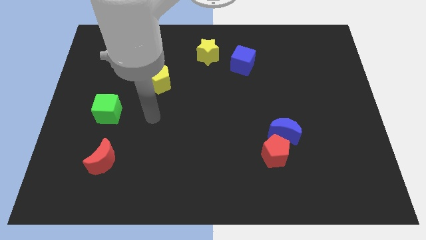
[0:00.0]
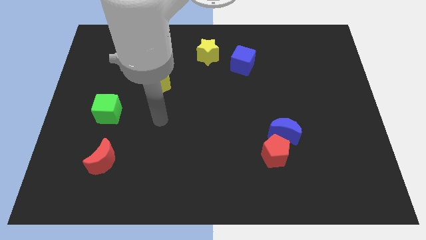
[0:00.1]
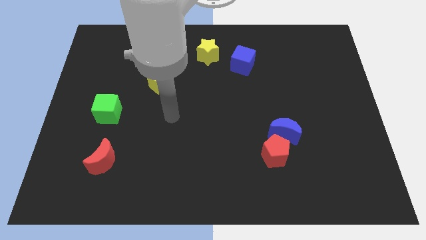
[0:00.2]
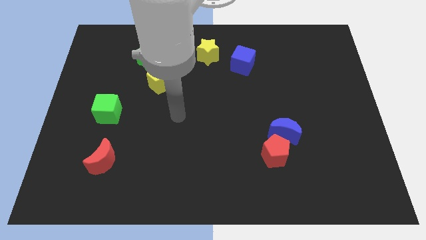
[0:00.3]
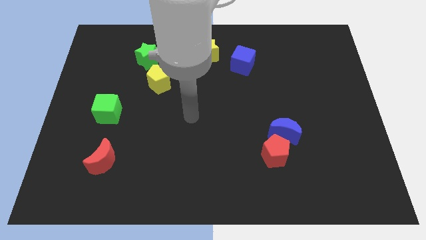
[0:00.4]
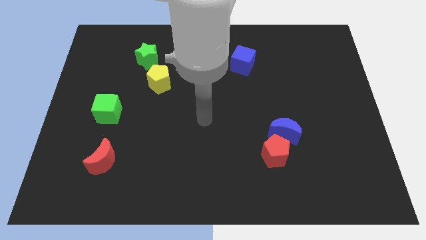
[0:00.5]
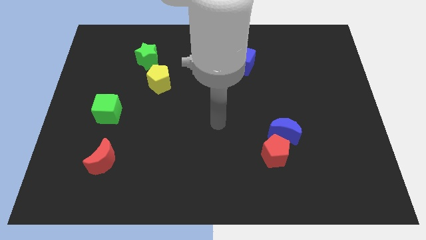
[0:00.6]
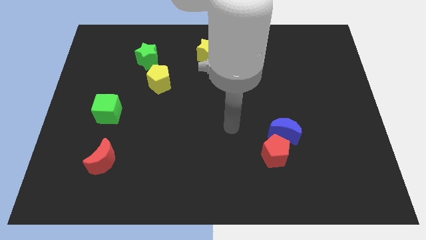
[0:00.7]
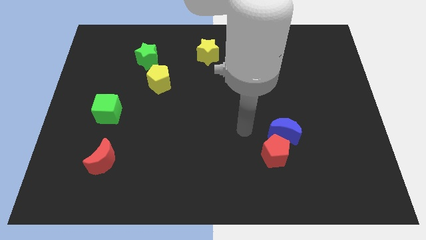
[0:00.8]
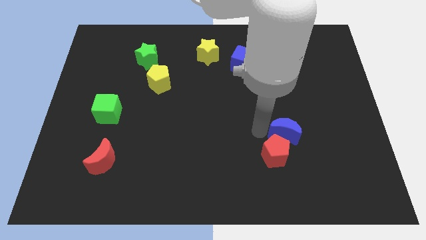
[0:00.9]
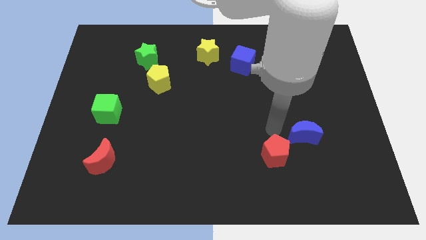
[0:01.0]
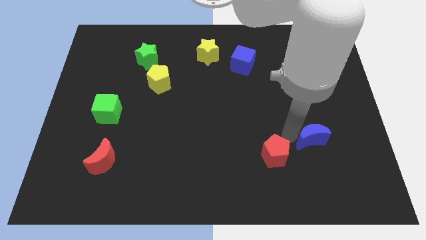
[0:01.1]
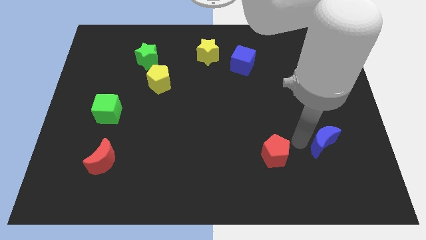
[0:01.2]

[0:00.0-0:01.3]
move the red pentagon away from the blue moon

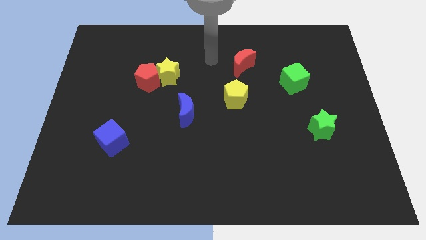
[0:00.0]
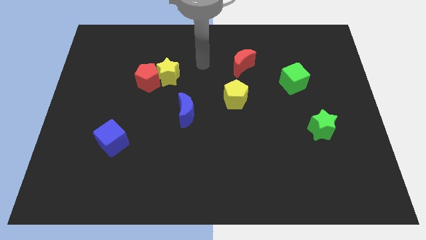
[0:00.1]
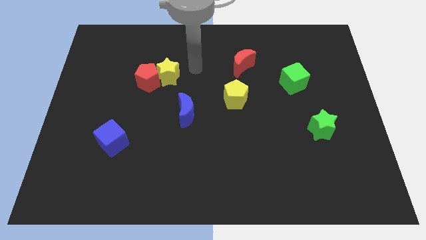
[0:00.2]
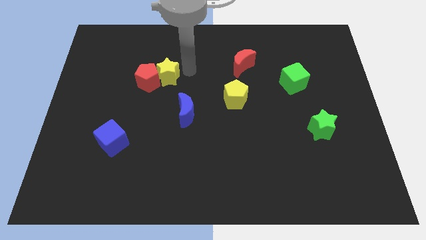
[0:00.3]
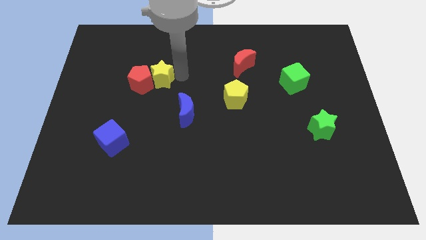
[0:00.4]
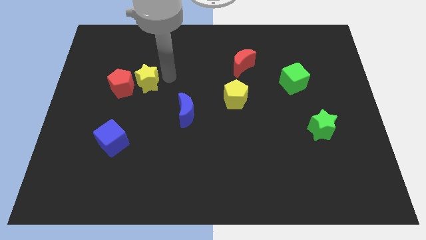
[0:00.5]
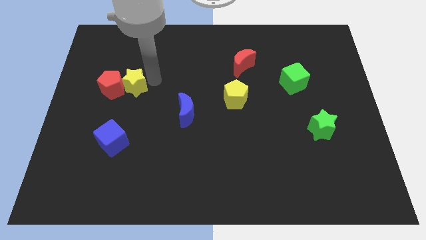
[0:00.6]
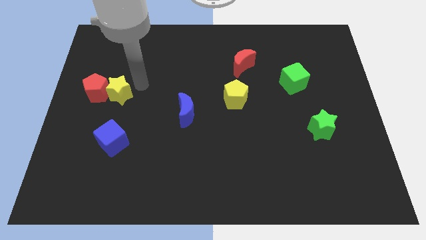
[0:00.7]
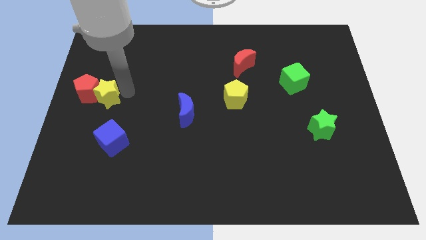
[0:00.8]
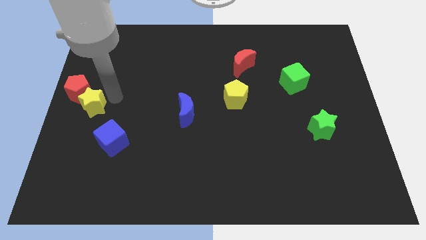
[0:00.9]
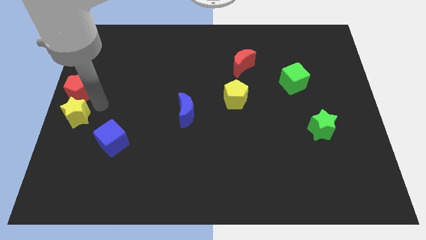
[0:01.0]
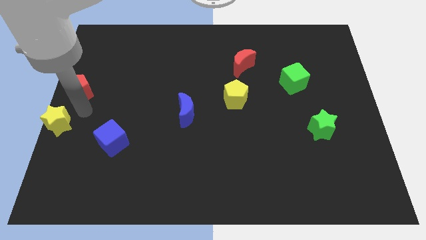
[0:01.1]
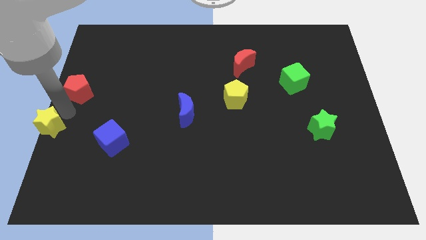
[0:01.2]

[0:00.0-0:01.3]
move the red pentagon away from the yellow star

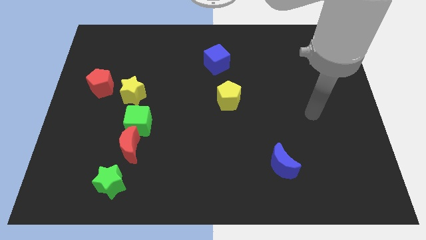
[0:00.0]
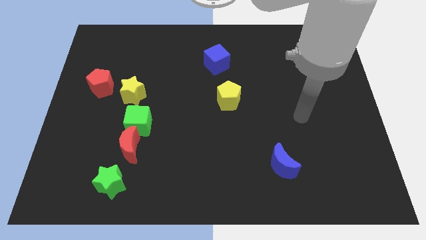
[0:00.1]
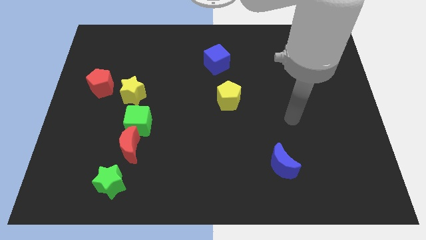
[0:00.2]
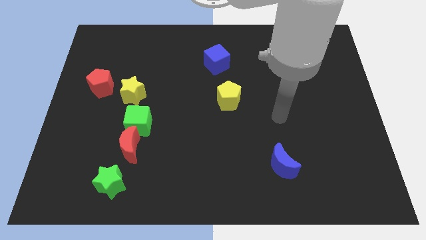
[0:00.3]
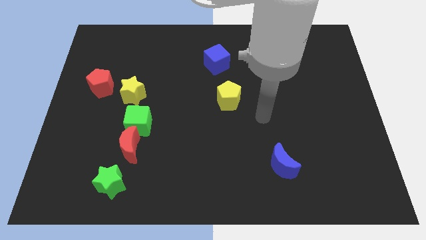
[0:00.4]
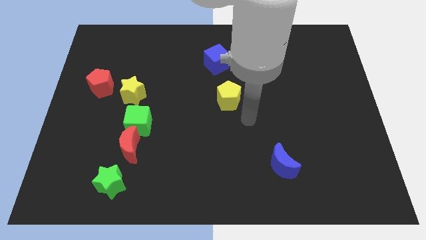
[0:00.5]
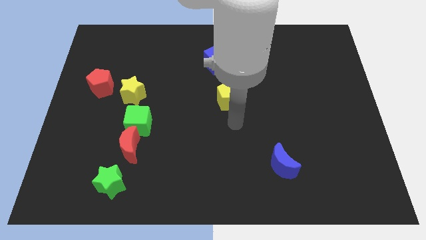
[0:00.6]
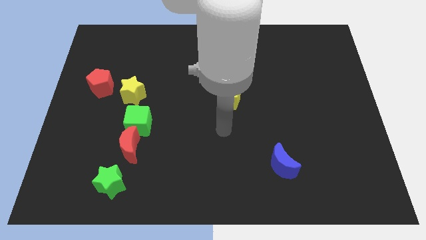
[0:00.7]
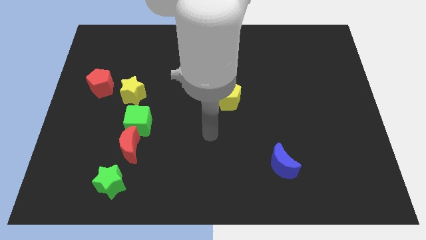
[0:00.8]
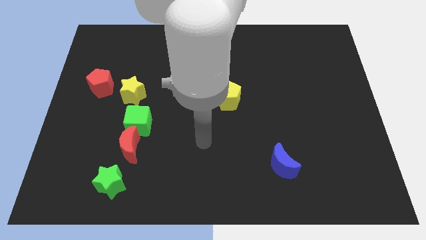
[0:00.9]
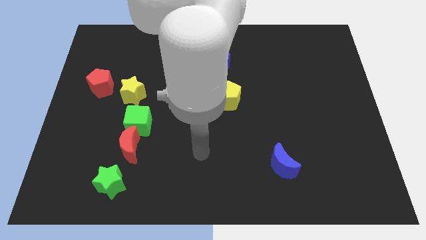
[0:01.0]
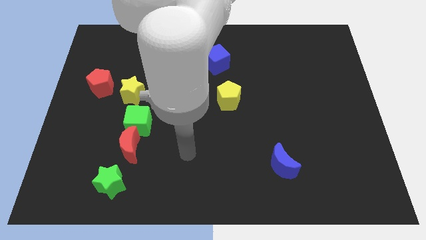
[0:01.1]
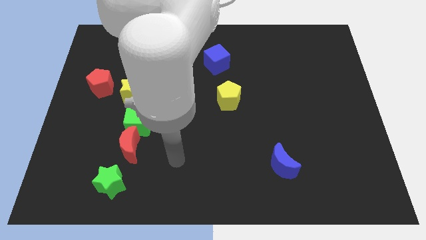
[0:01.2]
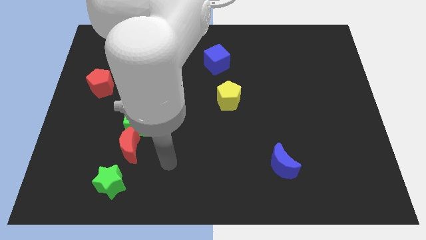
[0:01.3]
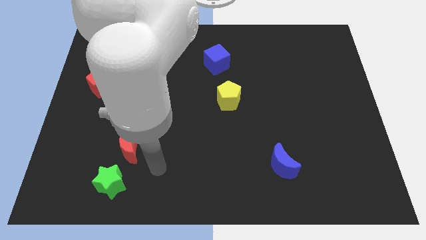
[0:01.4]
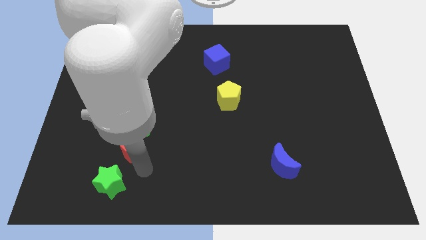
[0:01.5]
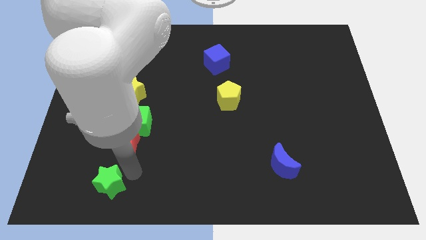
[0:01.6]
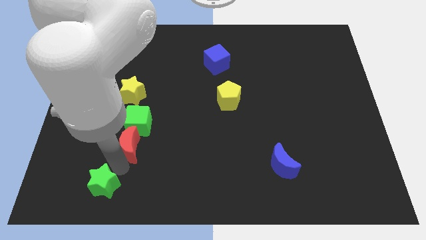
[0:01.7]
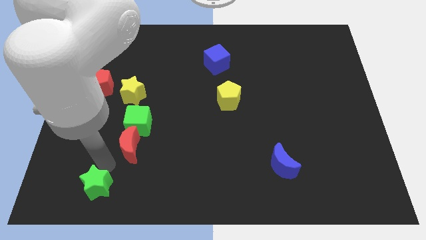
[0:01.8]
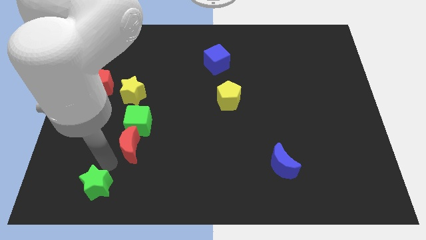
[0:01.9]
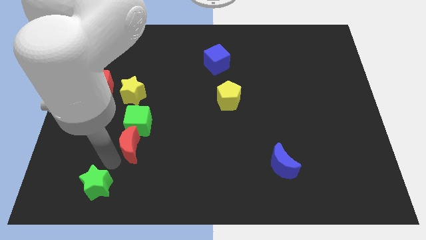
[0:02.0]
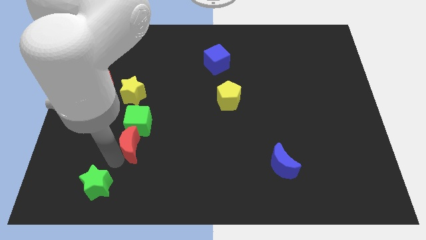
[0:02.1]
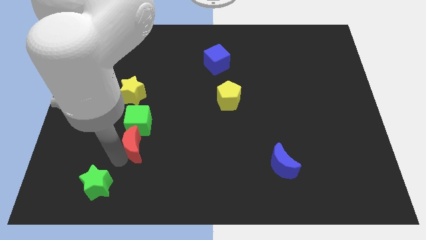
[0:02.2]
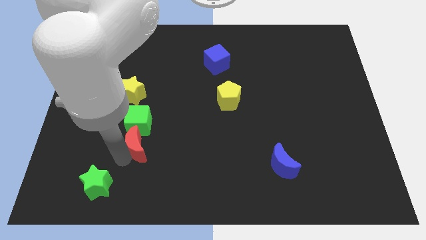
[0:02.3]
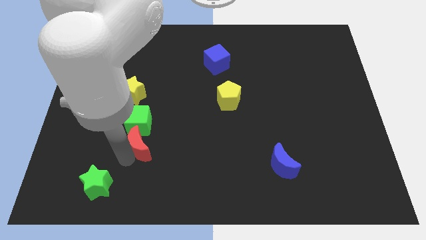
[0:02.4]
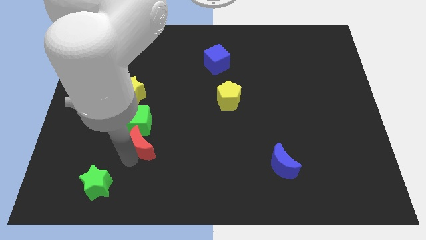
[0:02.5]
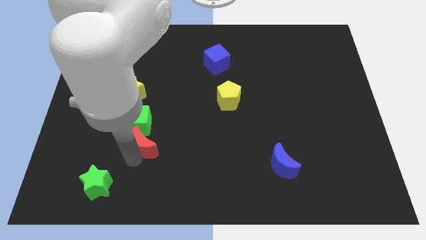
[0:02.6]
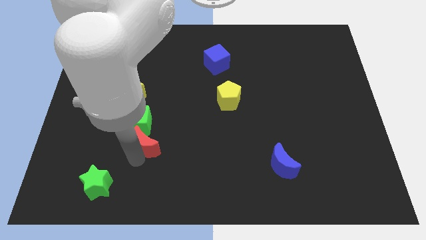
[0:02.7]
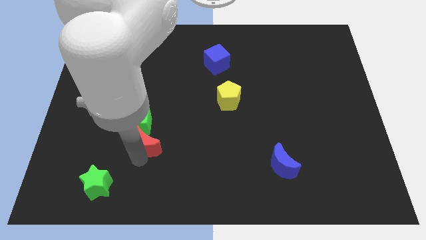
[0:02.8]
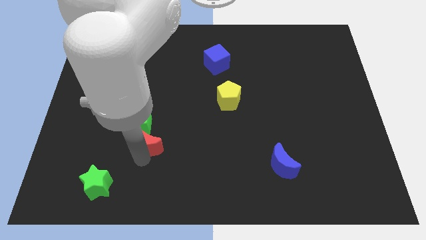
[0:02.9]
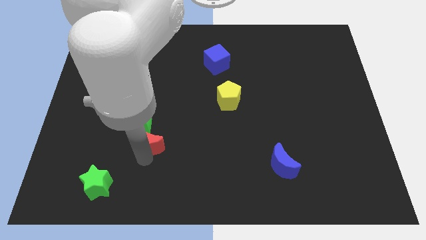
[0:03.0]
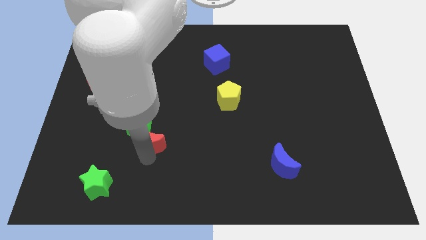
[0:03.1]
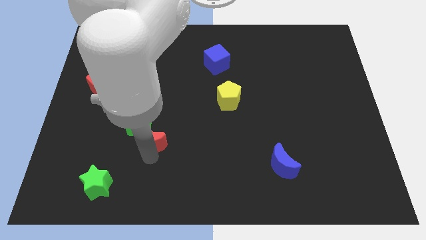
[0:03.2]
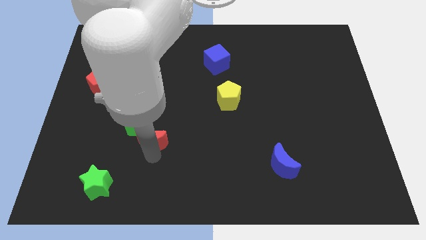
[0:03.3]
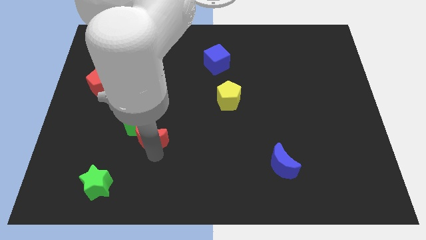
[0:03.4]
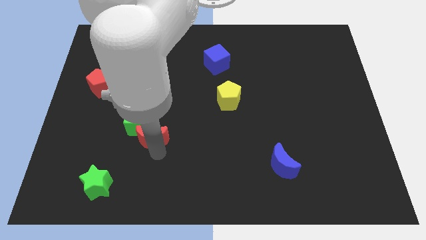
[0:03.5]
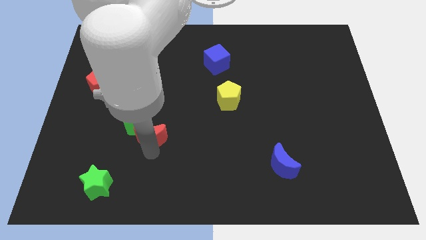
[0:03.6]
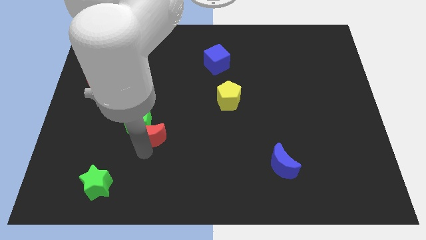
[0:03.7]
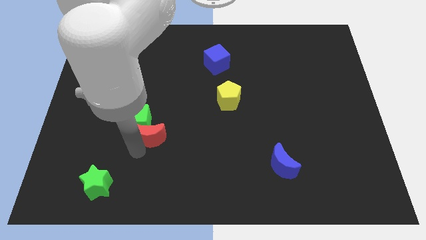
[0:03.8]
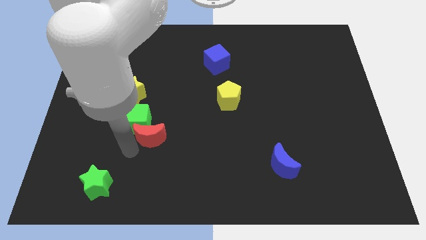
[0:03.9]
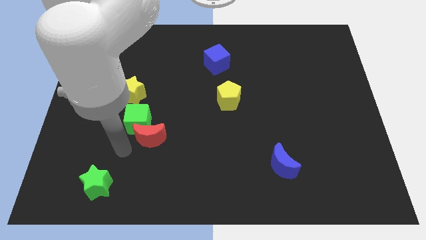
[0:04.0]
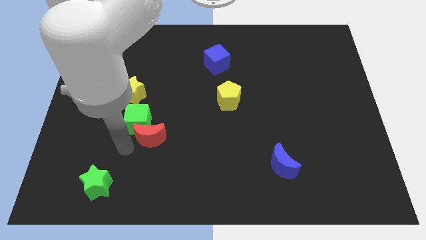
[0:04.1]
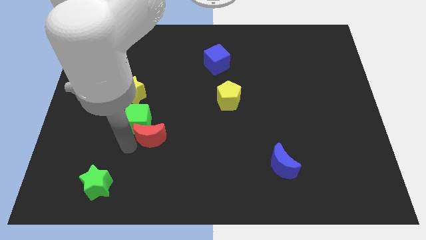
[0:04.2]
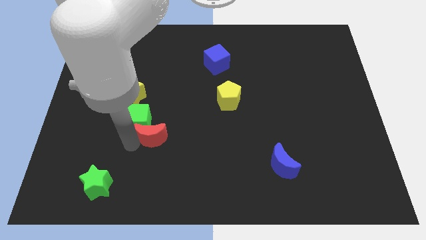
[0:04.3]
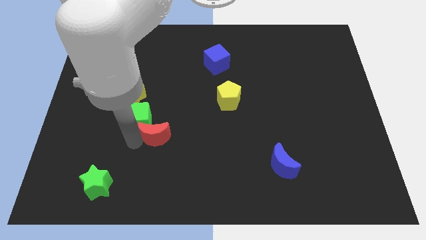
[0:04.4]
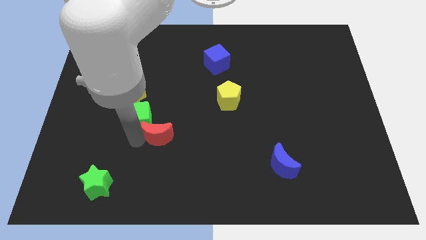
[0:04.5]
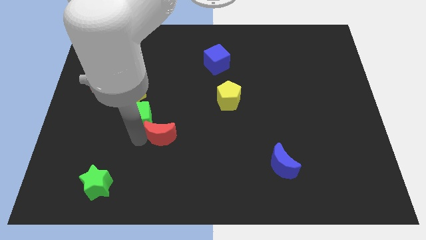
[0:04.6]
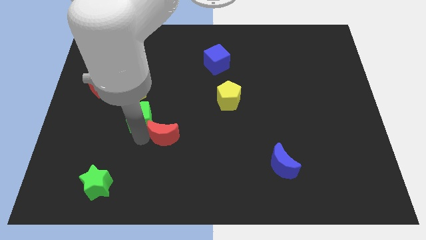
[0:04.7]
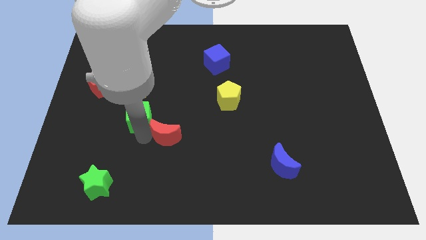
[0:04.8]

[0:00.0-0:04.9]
separate the red moon from the green cube and green star

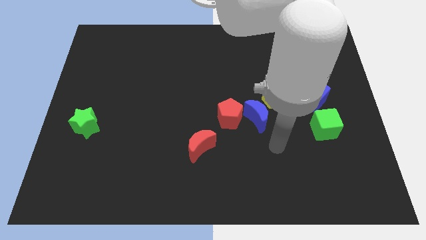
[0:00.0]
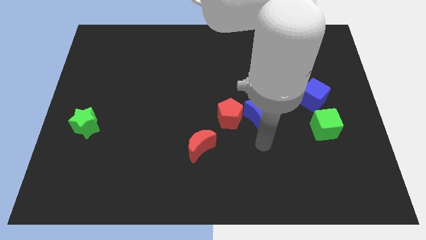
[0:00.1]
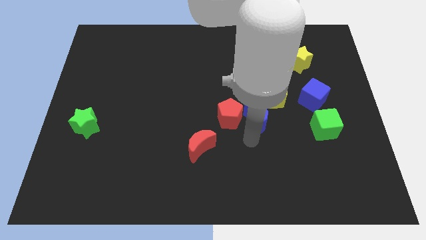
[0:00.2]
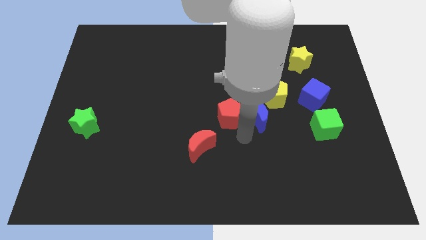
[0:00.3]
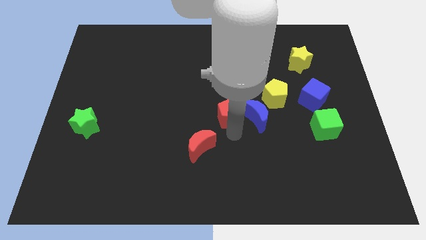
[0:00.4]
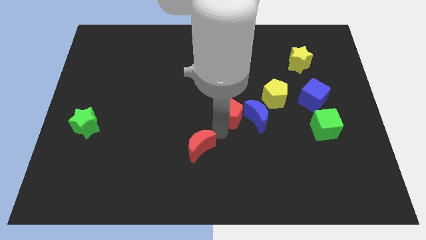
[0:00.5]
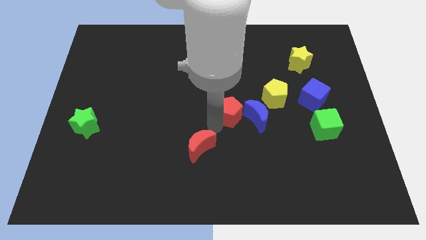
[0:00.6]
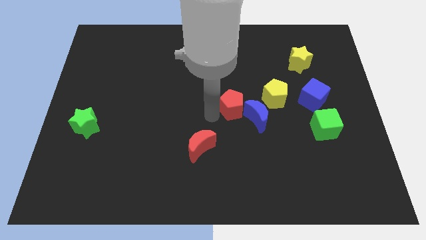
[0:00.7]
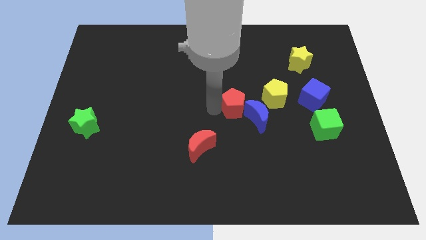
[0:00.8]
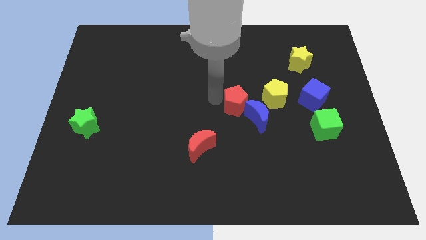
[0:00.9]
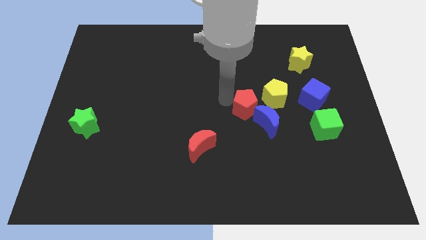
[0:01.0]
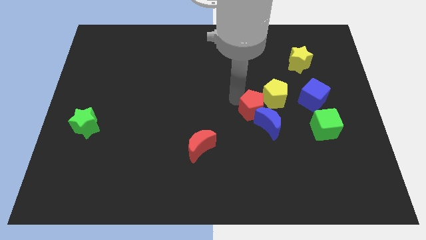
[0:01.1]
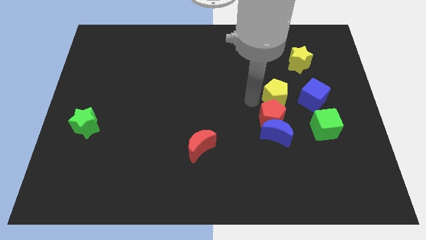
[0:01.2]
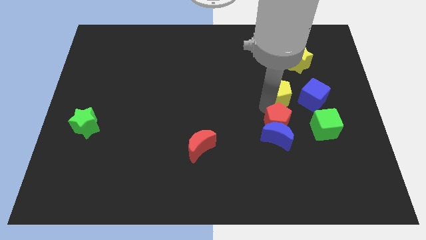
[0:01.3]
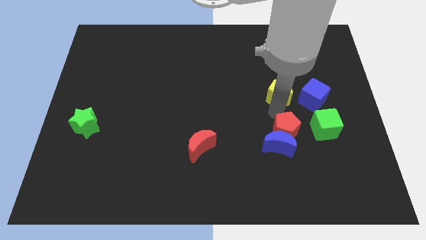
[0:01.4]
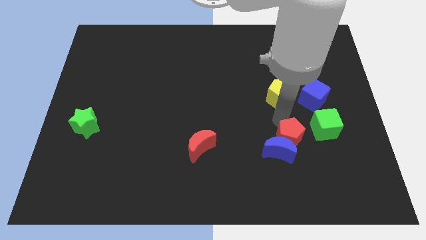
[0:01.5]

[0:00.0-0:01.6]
pull the blue moon apart from the red pentagon and yellow pentagon

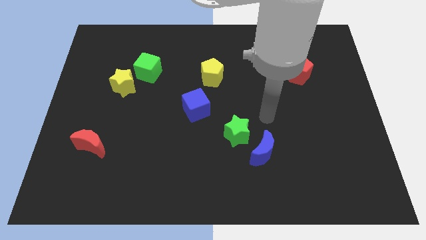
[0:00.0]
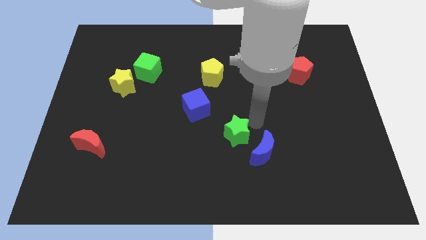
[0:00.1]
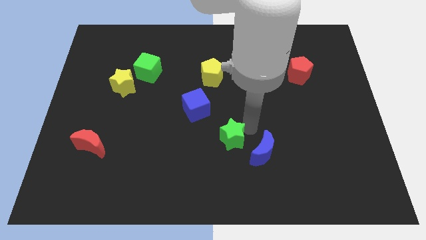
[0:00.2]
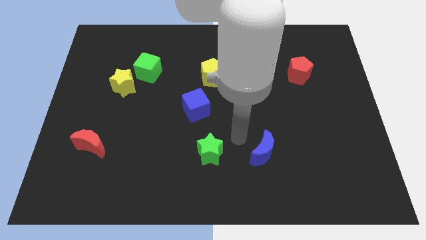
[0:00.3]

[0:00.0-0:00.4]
move the blue moon away from the green star
